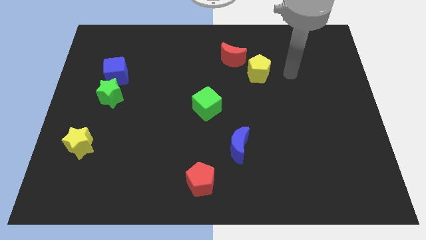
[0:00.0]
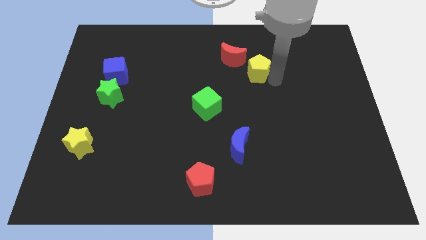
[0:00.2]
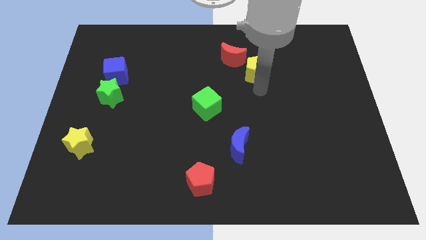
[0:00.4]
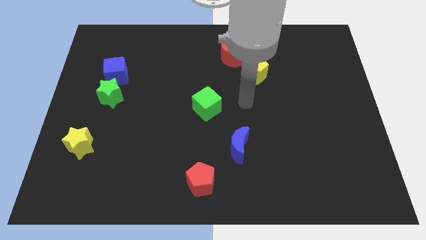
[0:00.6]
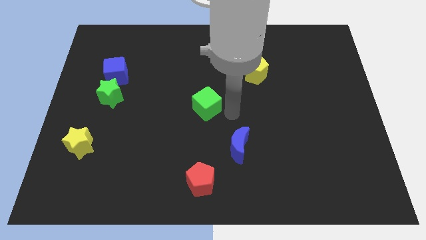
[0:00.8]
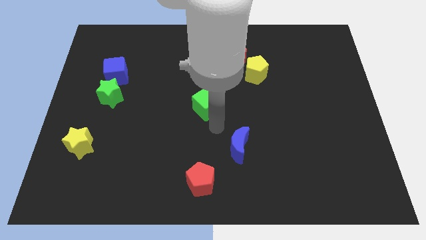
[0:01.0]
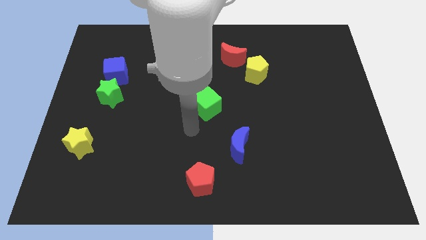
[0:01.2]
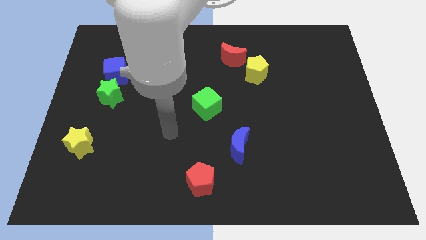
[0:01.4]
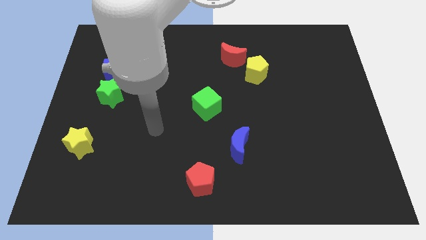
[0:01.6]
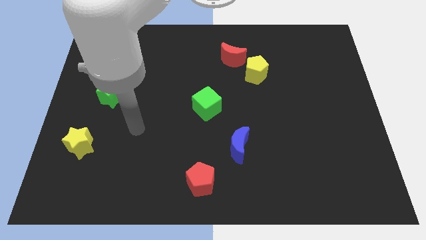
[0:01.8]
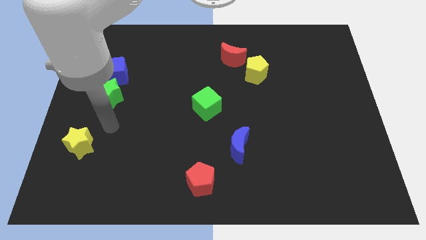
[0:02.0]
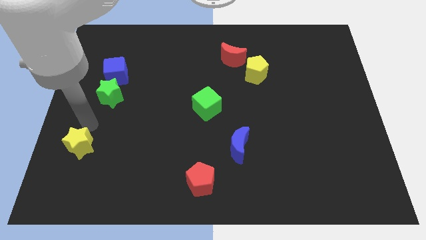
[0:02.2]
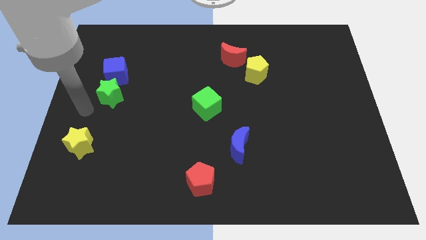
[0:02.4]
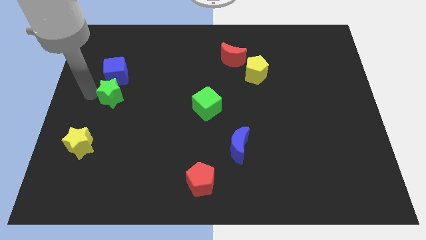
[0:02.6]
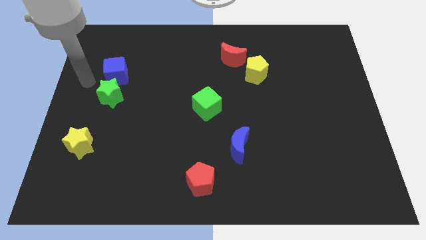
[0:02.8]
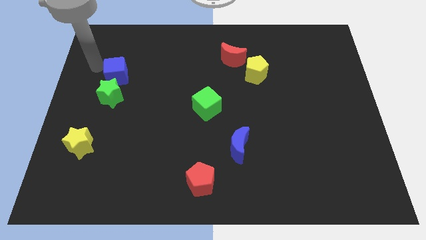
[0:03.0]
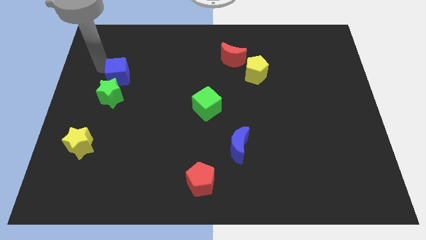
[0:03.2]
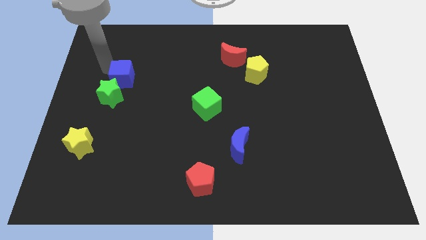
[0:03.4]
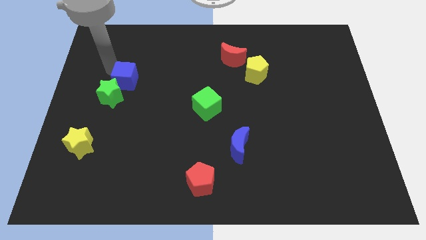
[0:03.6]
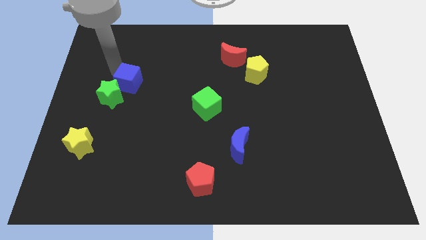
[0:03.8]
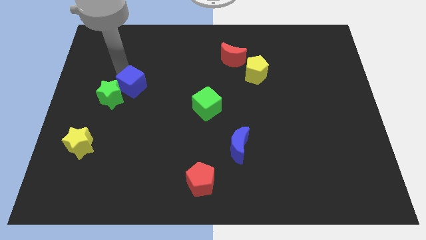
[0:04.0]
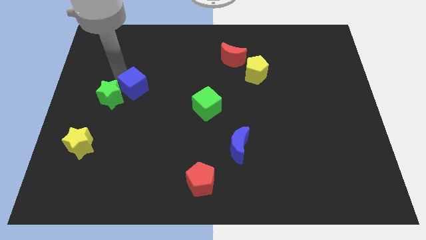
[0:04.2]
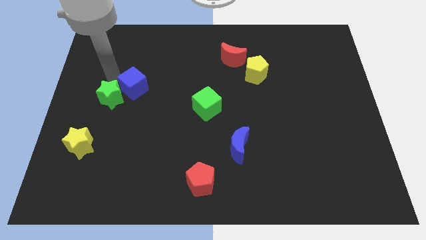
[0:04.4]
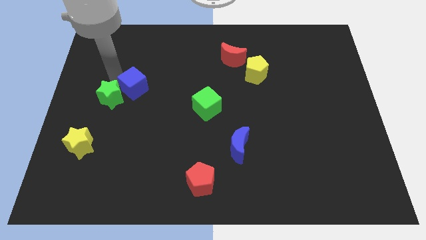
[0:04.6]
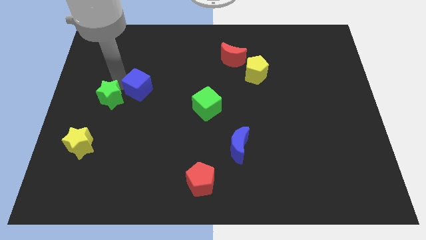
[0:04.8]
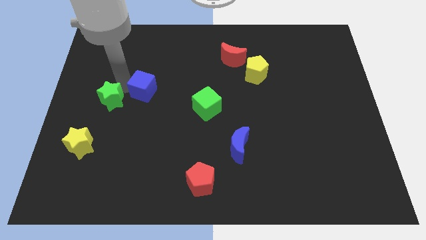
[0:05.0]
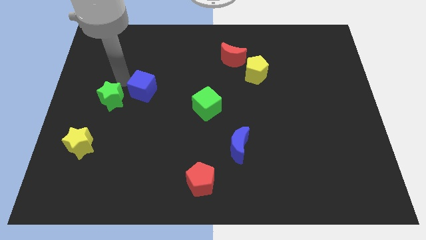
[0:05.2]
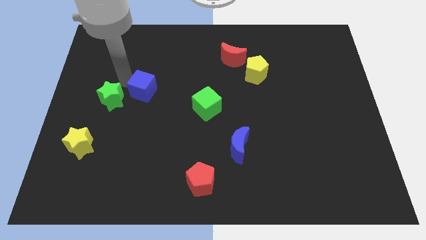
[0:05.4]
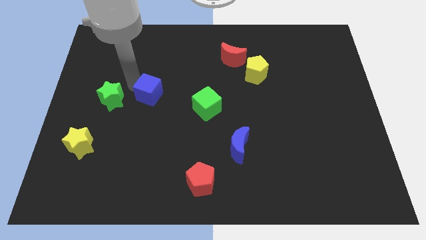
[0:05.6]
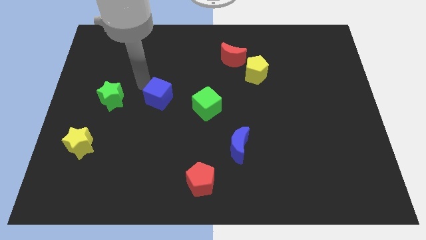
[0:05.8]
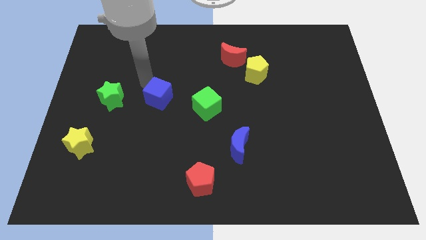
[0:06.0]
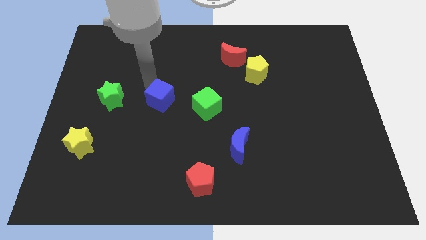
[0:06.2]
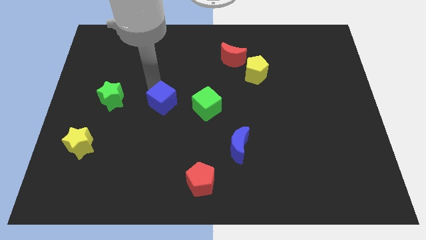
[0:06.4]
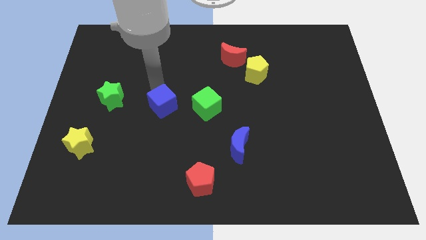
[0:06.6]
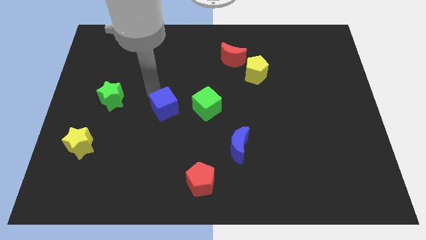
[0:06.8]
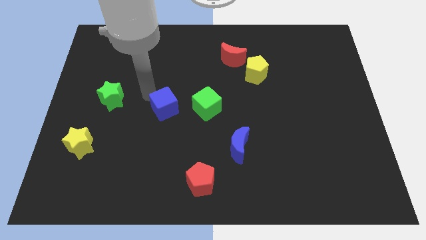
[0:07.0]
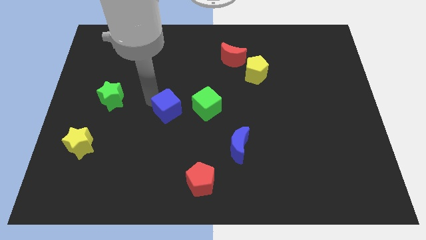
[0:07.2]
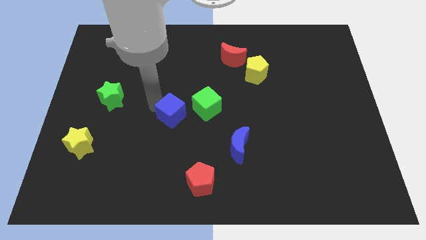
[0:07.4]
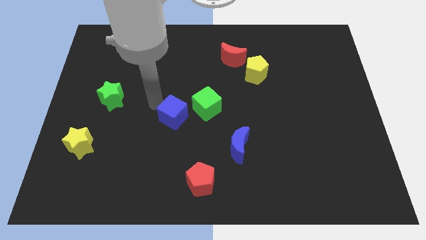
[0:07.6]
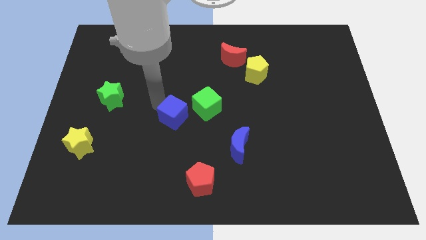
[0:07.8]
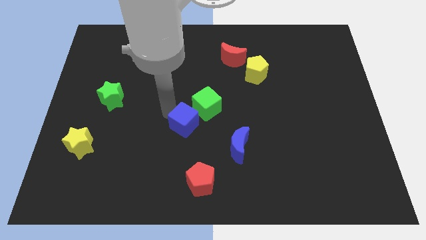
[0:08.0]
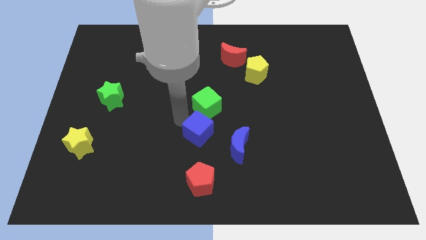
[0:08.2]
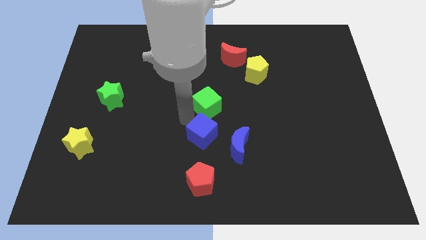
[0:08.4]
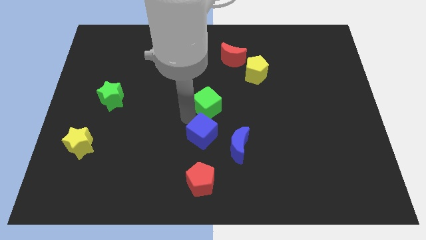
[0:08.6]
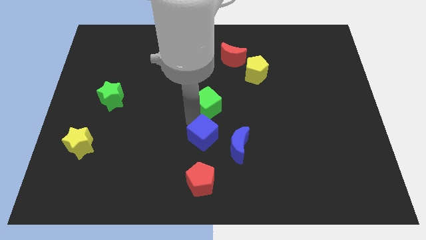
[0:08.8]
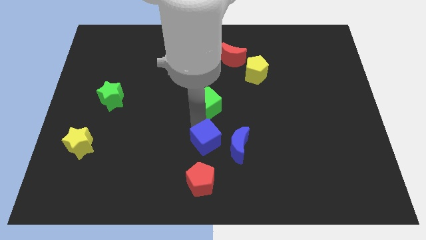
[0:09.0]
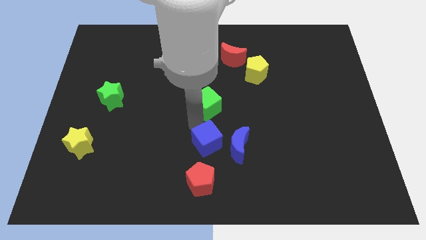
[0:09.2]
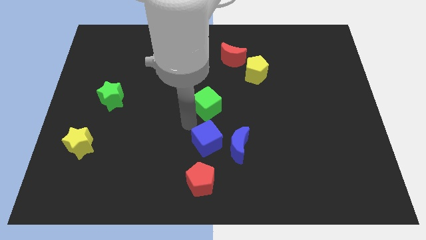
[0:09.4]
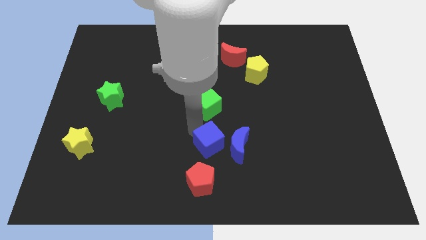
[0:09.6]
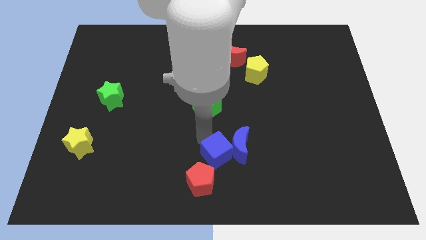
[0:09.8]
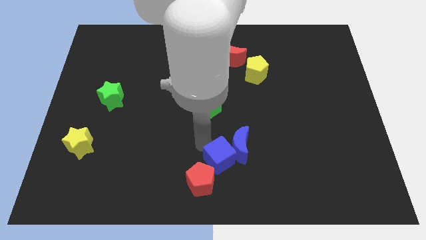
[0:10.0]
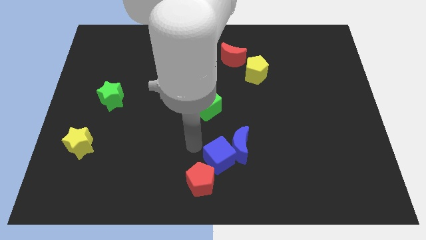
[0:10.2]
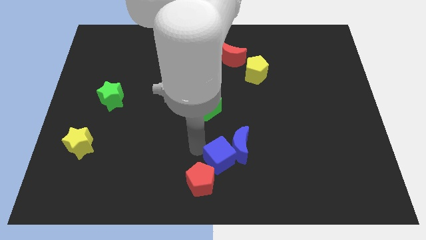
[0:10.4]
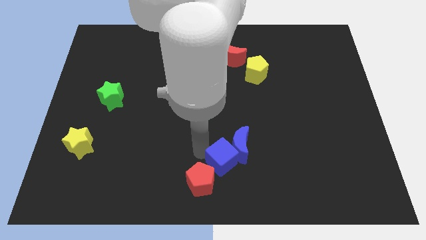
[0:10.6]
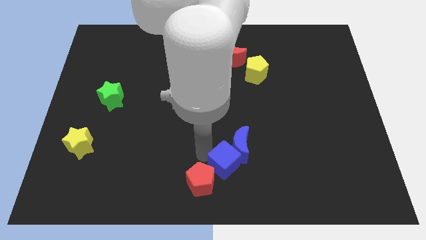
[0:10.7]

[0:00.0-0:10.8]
move the blue cube to the right of the red pentagon

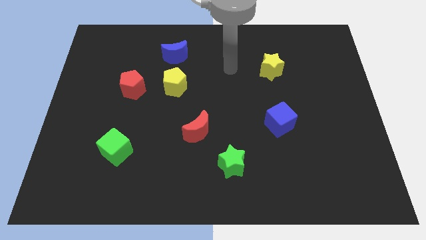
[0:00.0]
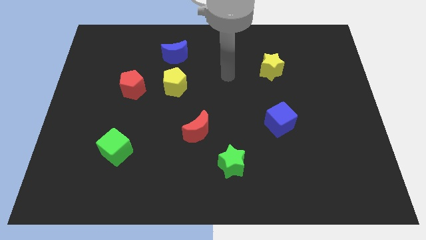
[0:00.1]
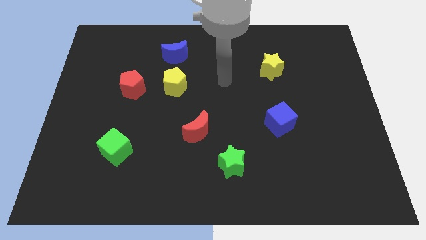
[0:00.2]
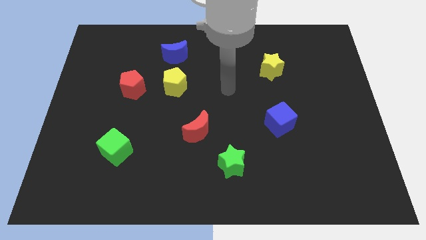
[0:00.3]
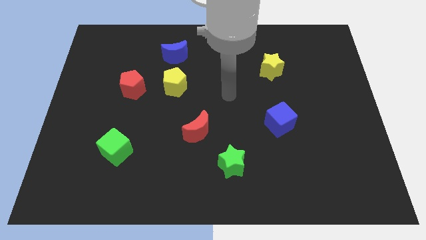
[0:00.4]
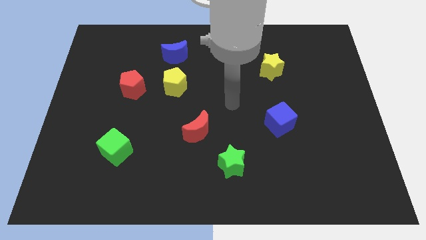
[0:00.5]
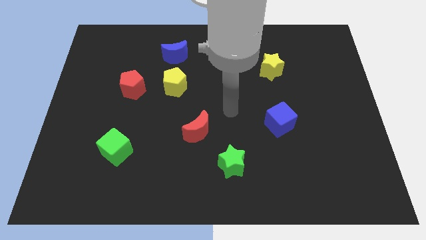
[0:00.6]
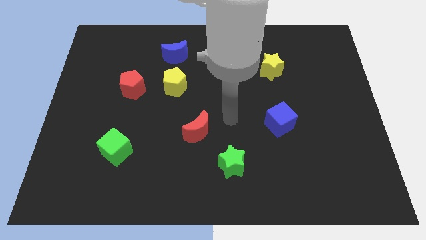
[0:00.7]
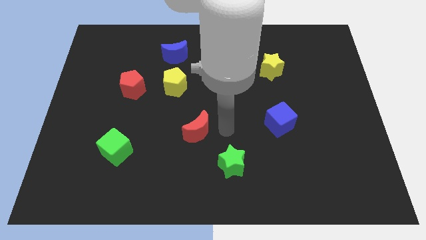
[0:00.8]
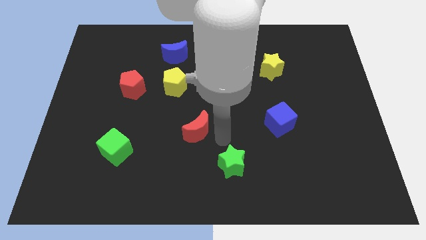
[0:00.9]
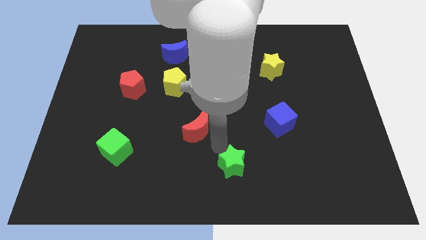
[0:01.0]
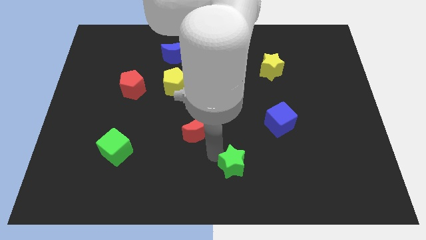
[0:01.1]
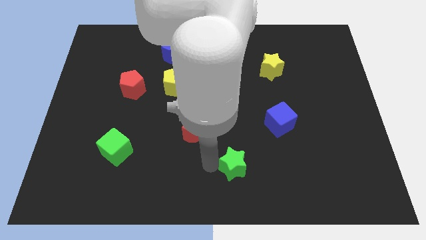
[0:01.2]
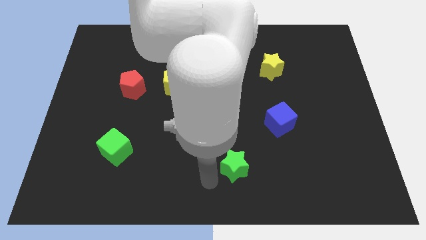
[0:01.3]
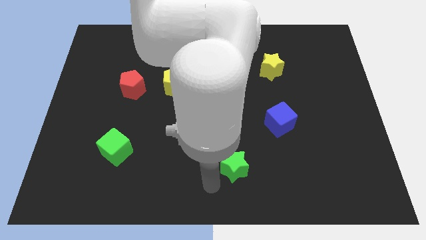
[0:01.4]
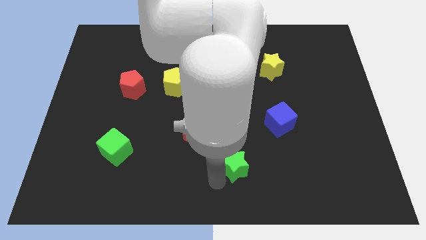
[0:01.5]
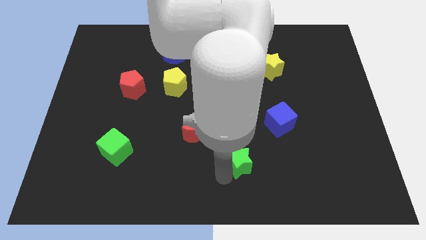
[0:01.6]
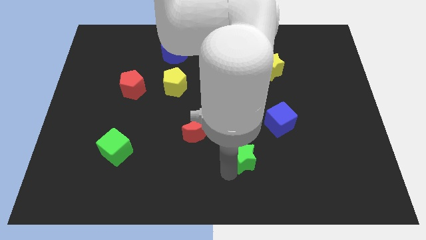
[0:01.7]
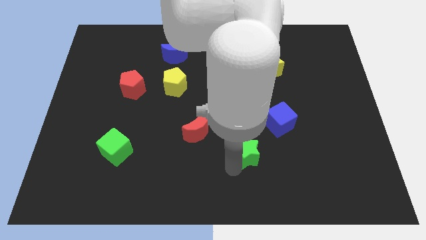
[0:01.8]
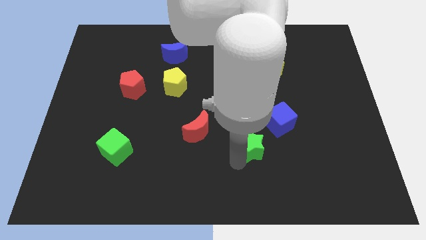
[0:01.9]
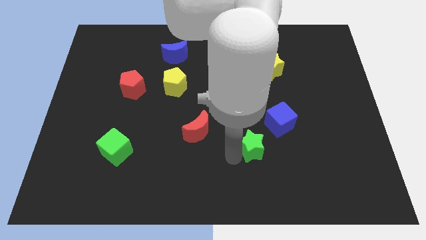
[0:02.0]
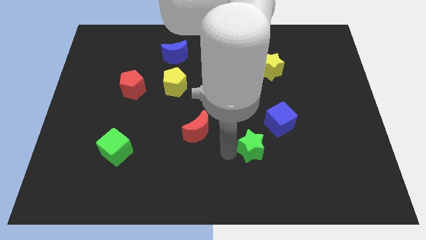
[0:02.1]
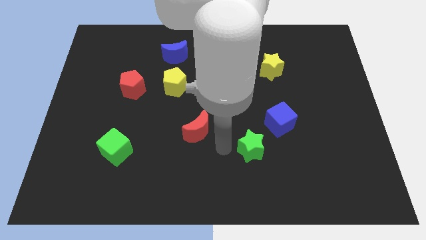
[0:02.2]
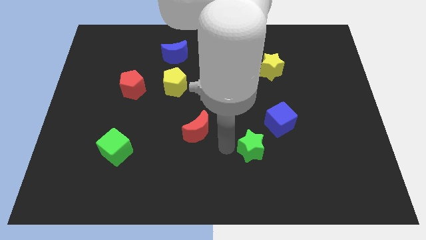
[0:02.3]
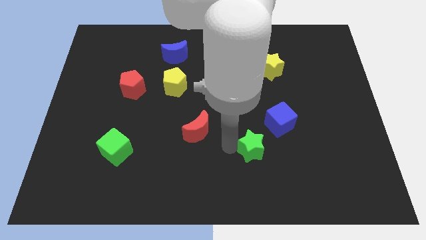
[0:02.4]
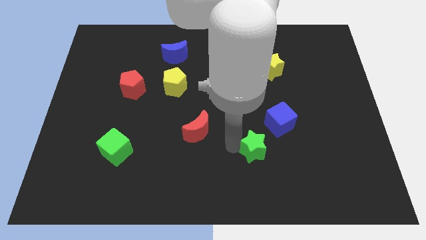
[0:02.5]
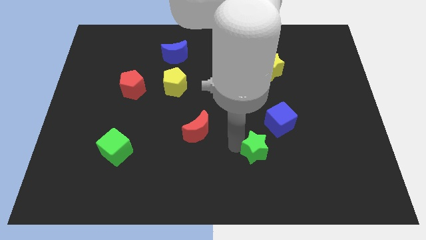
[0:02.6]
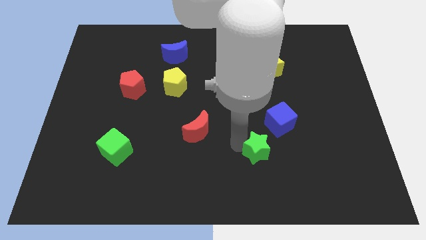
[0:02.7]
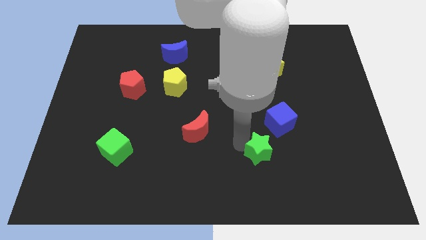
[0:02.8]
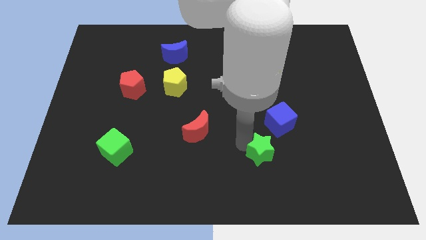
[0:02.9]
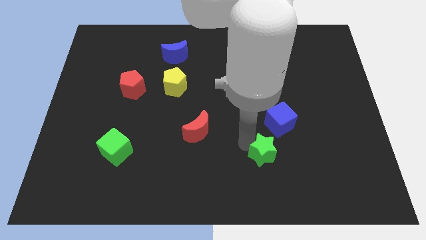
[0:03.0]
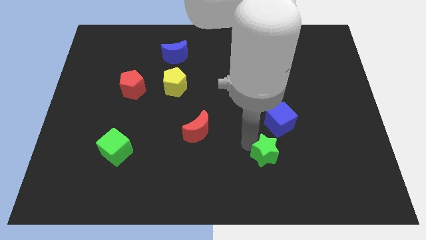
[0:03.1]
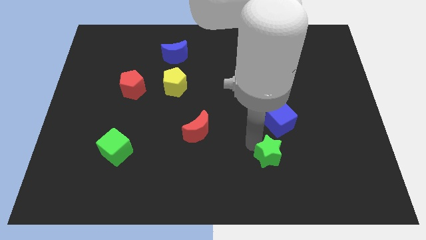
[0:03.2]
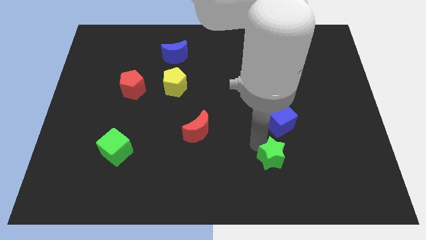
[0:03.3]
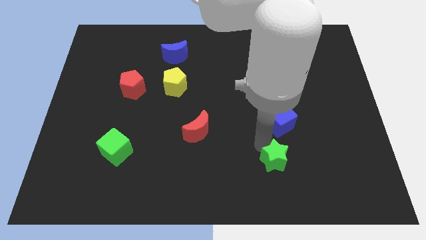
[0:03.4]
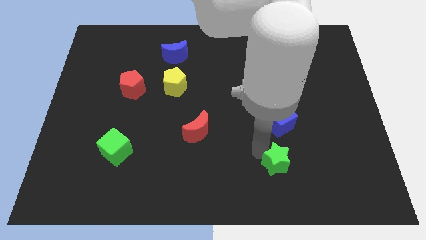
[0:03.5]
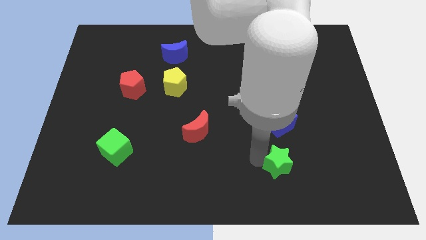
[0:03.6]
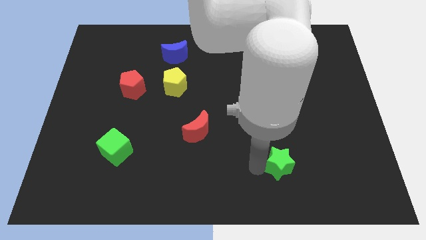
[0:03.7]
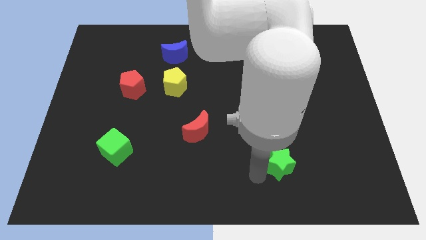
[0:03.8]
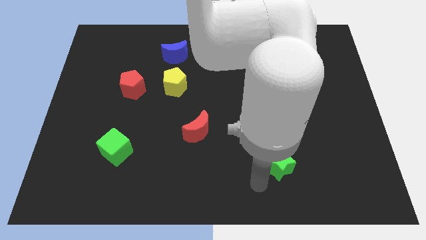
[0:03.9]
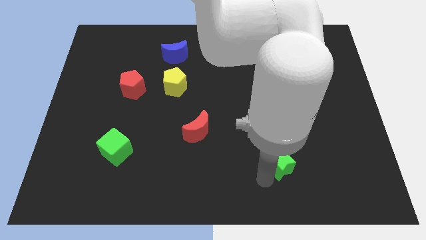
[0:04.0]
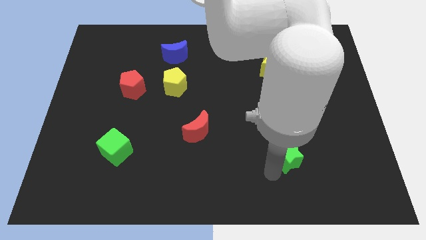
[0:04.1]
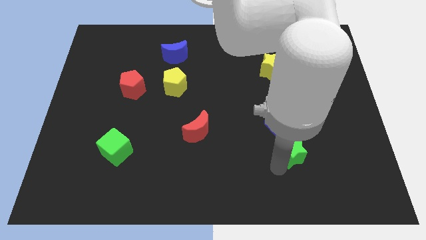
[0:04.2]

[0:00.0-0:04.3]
put the green star diagonally down and to the right of the blue cube
